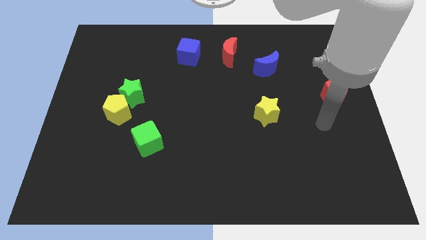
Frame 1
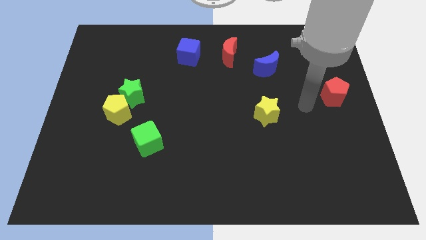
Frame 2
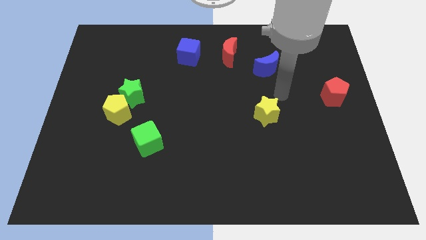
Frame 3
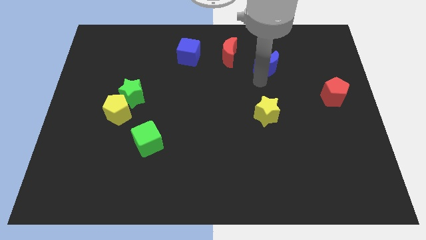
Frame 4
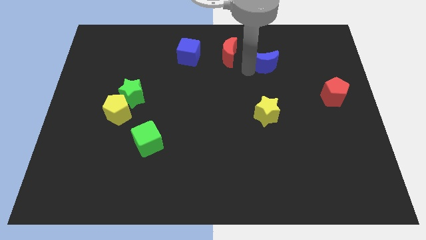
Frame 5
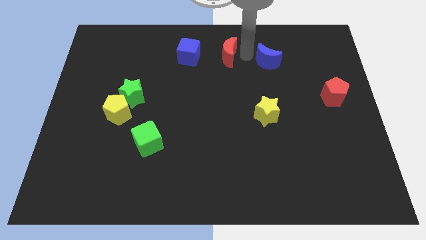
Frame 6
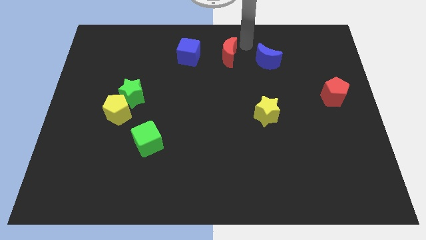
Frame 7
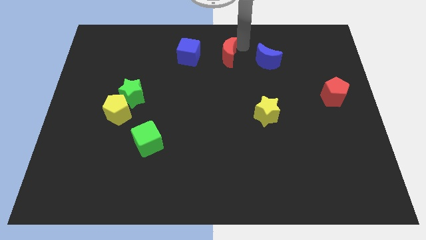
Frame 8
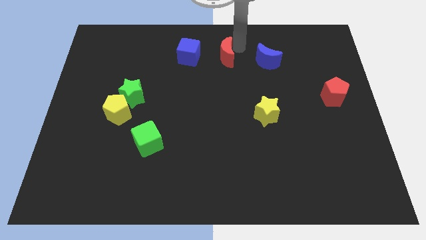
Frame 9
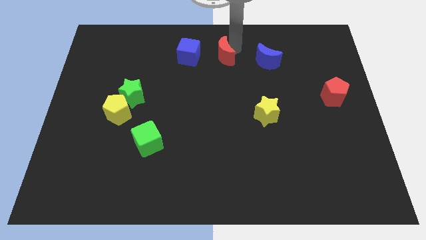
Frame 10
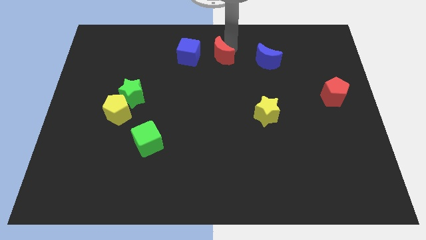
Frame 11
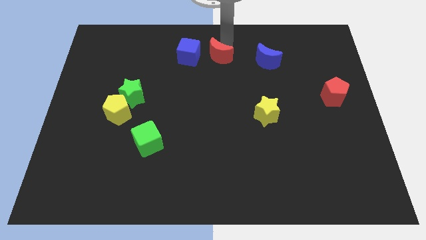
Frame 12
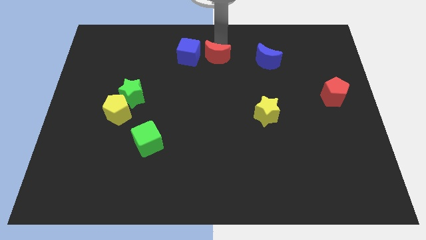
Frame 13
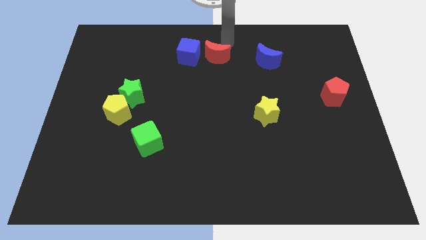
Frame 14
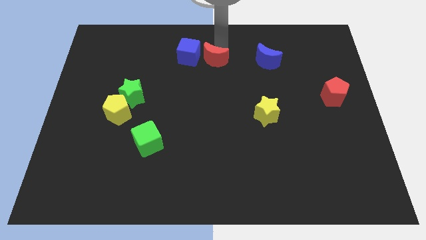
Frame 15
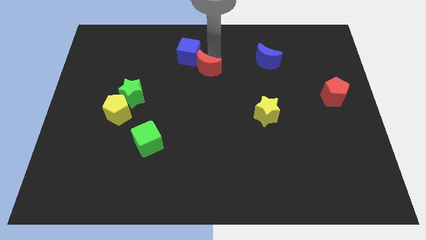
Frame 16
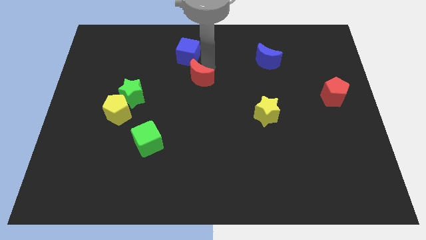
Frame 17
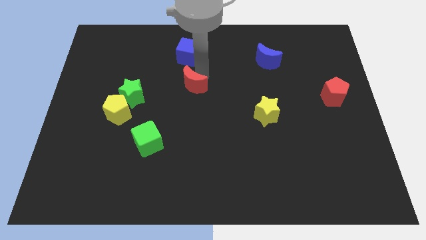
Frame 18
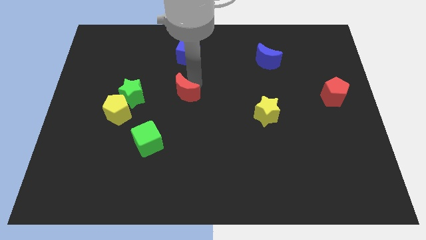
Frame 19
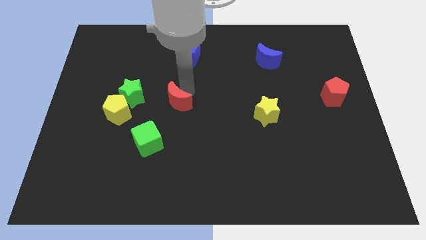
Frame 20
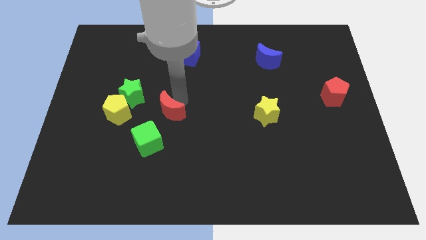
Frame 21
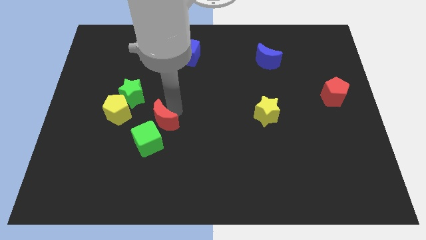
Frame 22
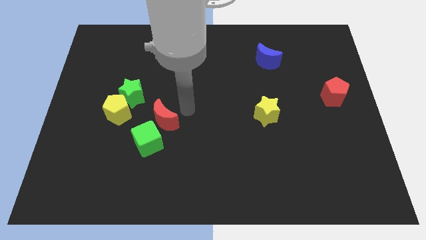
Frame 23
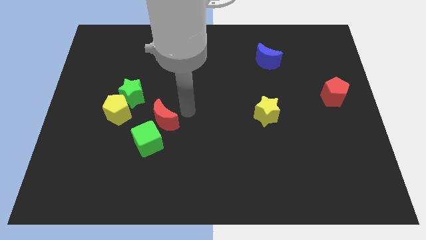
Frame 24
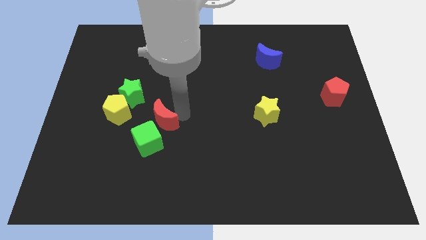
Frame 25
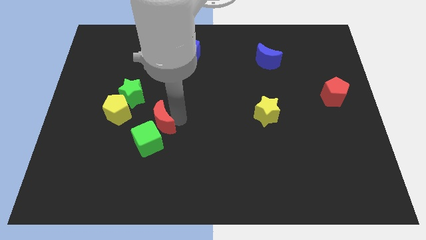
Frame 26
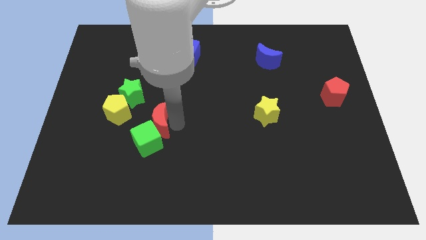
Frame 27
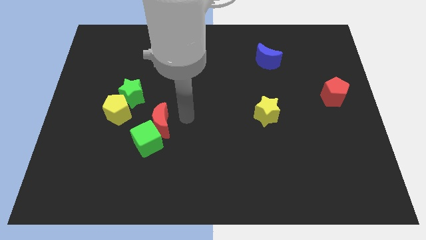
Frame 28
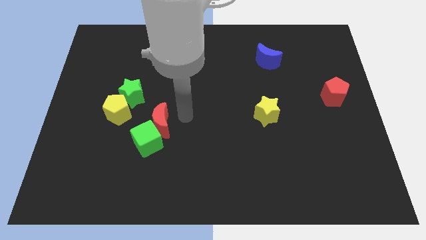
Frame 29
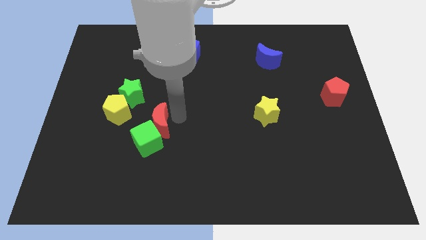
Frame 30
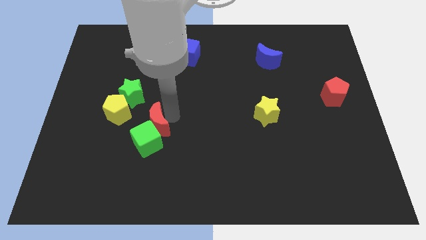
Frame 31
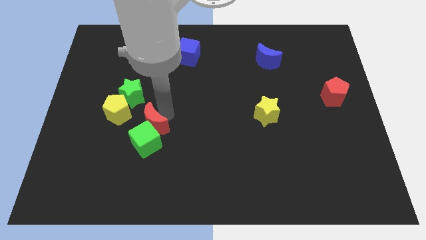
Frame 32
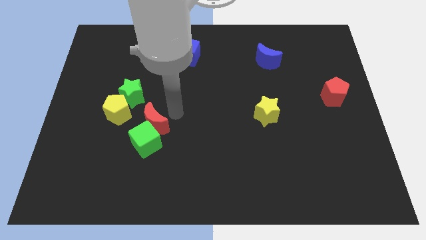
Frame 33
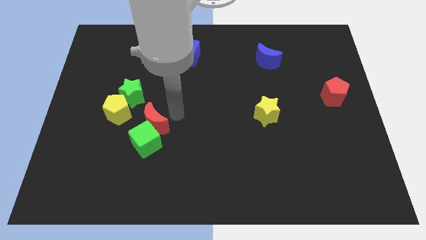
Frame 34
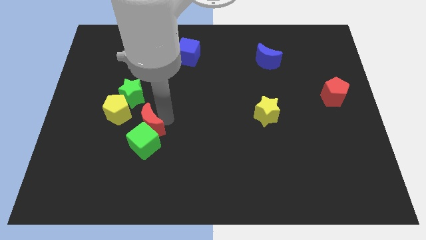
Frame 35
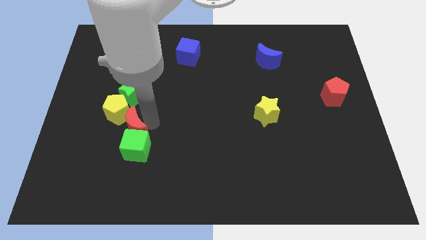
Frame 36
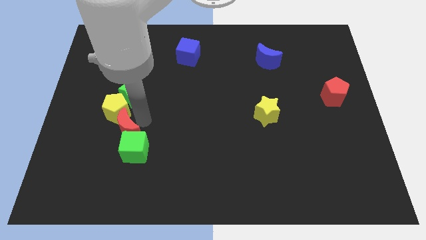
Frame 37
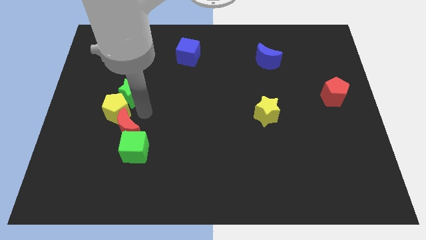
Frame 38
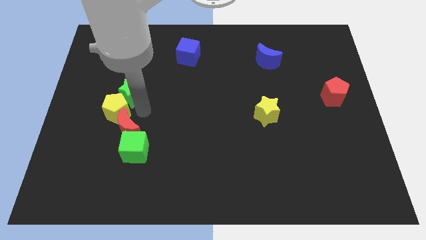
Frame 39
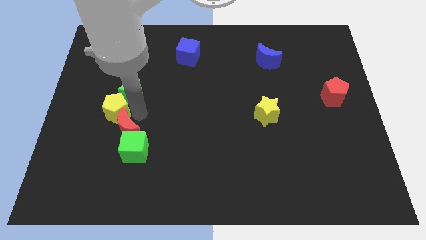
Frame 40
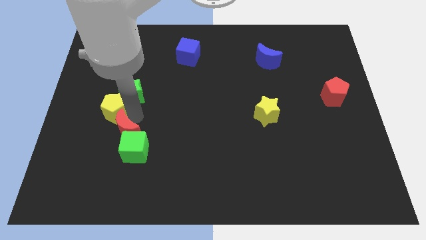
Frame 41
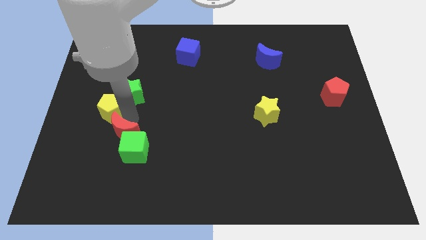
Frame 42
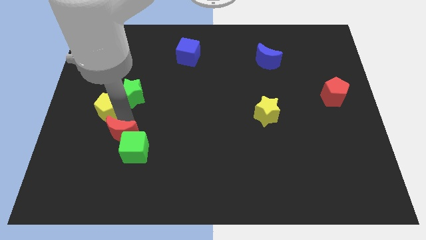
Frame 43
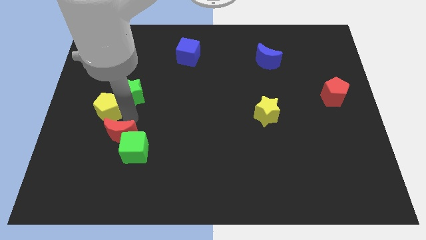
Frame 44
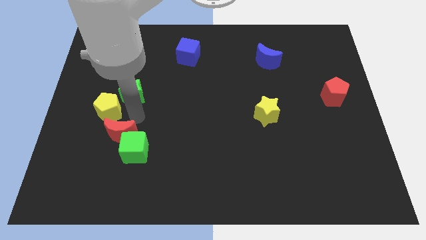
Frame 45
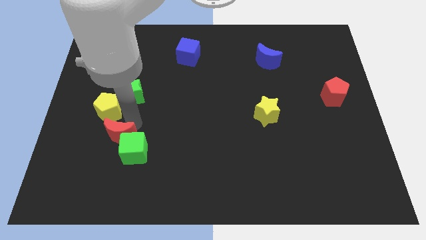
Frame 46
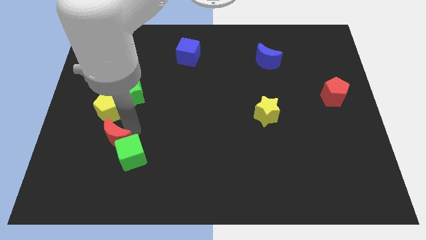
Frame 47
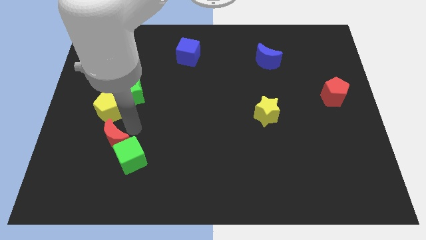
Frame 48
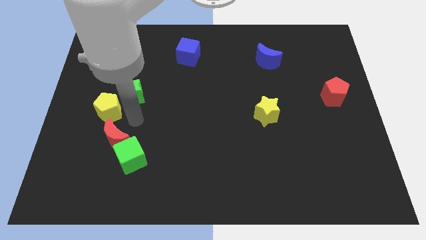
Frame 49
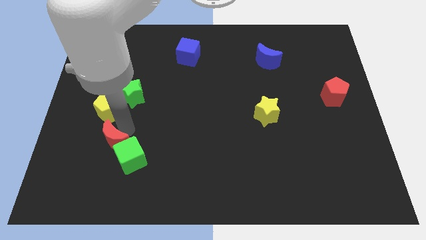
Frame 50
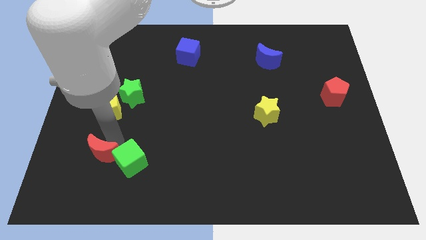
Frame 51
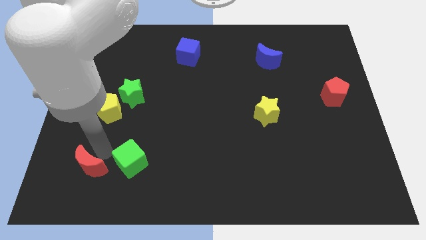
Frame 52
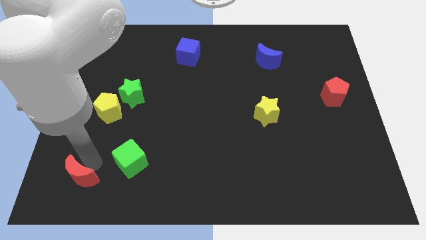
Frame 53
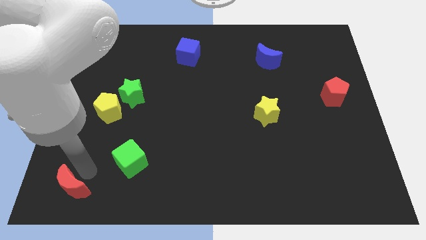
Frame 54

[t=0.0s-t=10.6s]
slide the red moon to the bottom left of the board

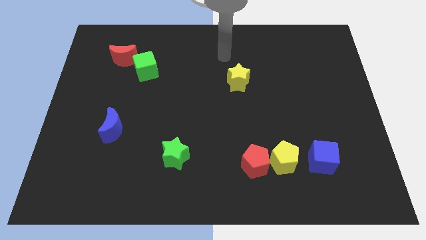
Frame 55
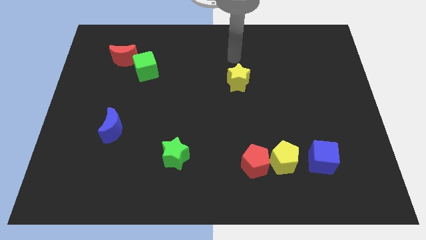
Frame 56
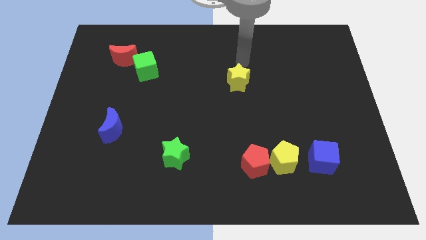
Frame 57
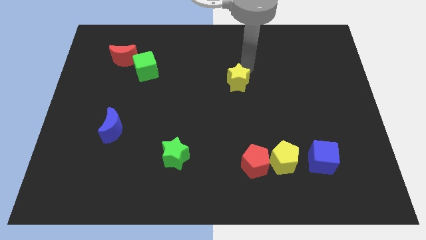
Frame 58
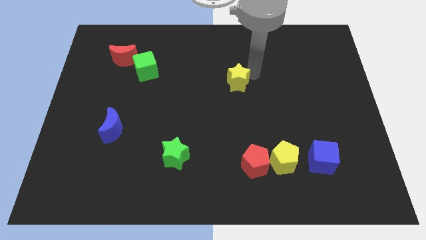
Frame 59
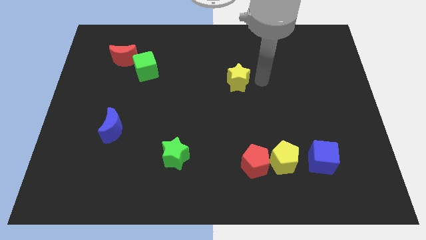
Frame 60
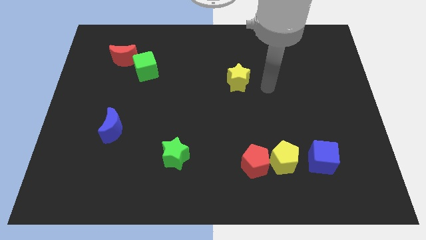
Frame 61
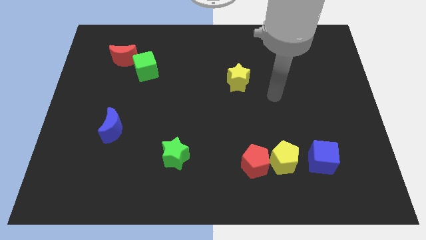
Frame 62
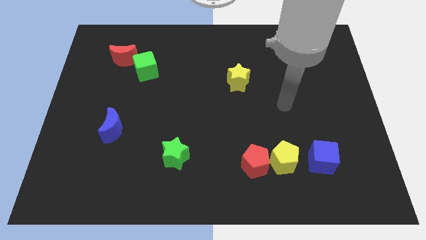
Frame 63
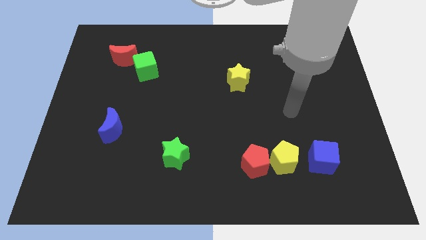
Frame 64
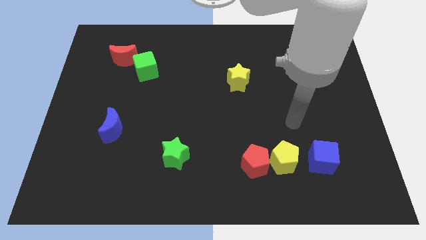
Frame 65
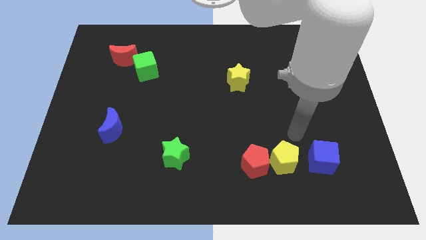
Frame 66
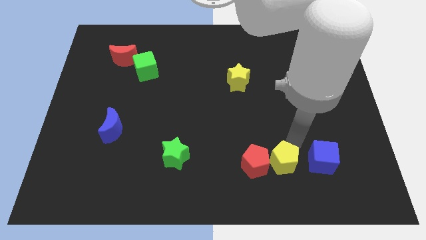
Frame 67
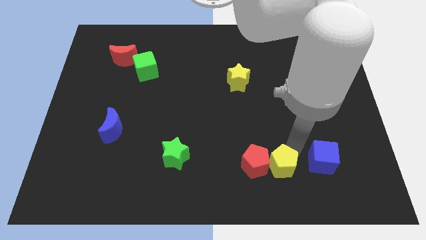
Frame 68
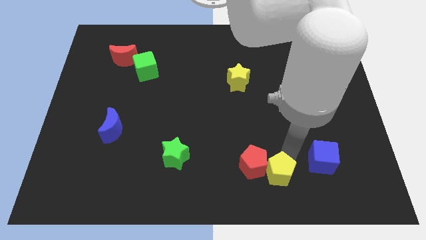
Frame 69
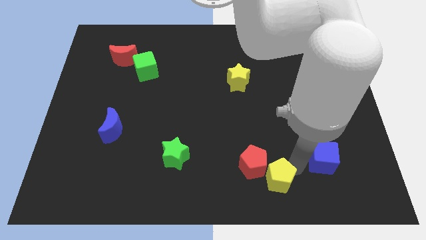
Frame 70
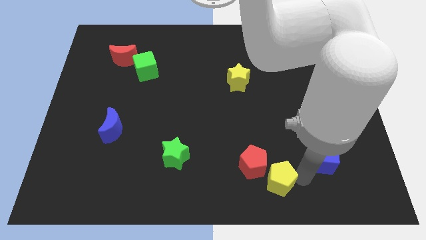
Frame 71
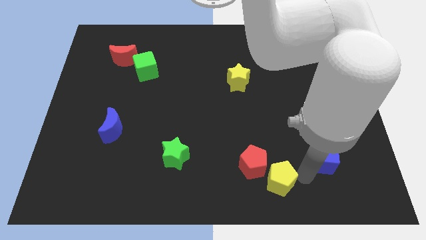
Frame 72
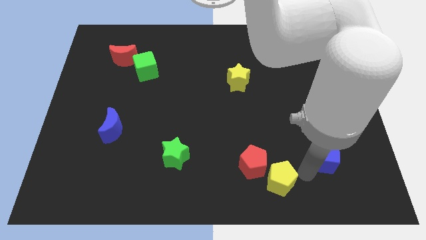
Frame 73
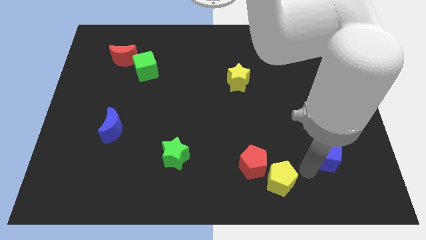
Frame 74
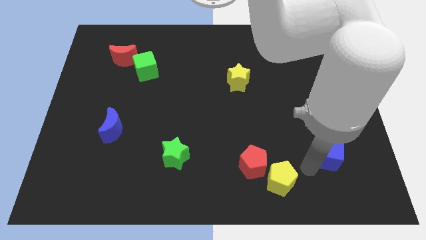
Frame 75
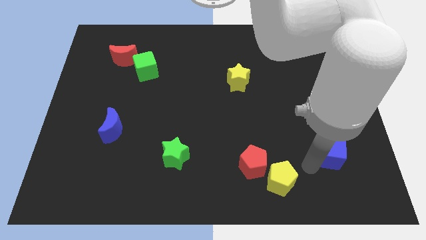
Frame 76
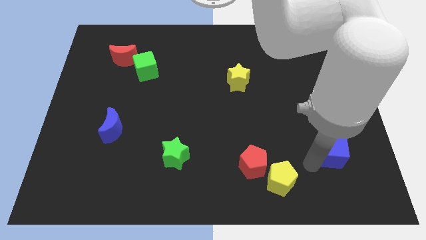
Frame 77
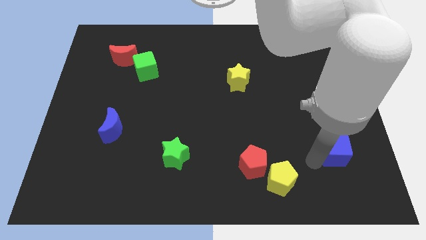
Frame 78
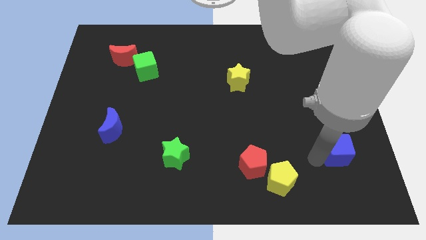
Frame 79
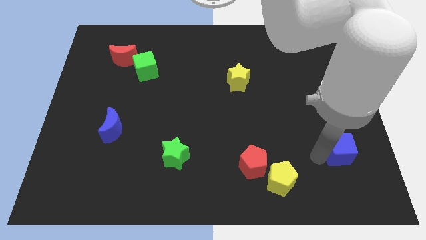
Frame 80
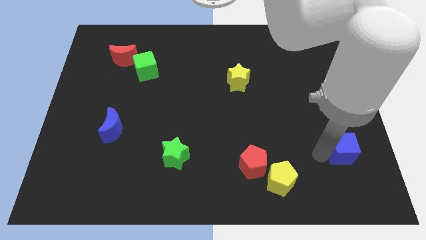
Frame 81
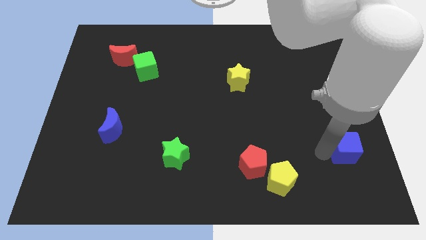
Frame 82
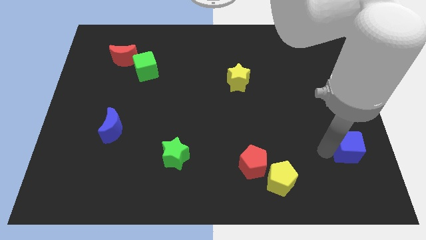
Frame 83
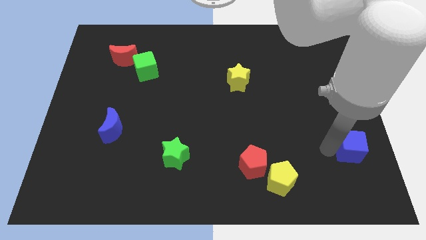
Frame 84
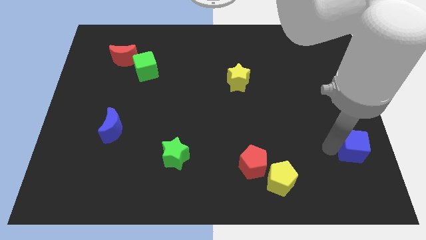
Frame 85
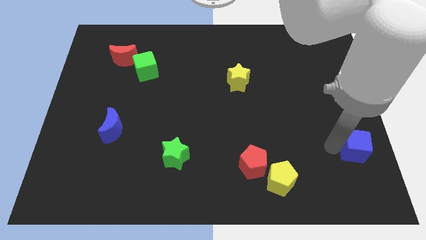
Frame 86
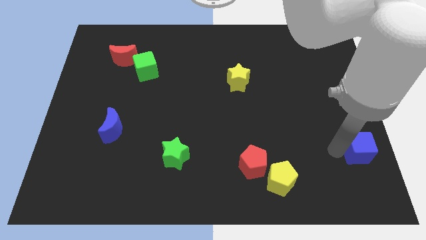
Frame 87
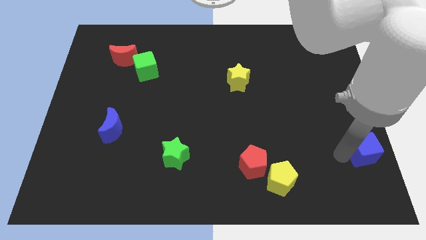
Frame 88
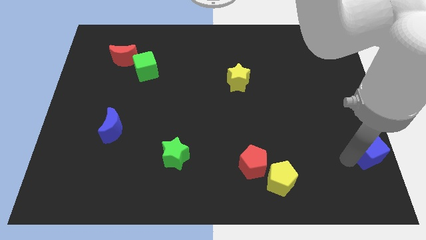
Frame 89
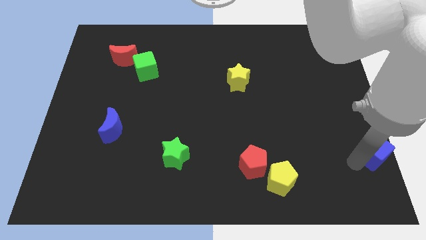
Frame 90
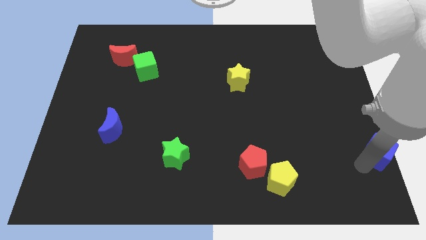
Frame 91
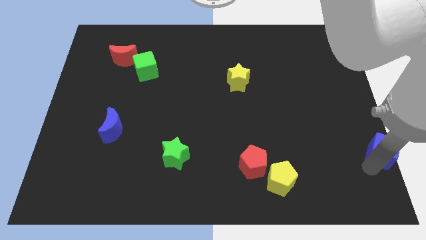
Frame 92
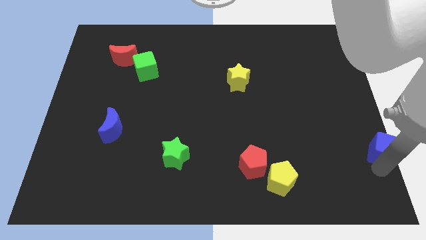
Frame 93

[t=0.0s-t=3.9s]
push the blue cube to the center right
